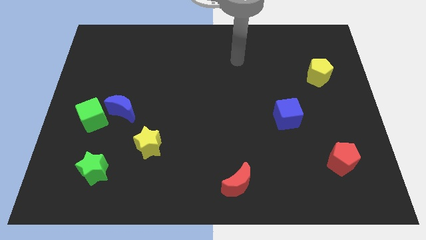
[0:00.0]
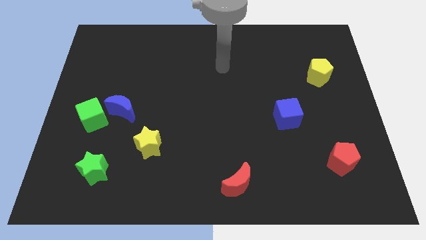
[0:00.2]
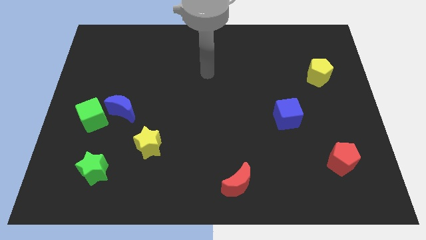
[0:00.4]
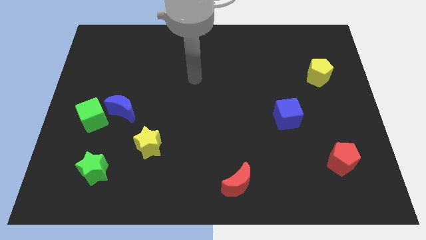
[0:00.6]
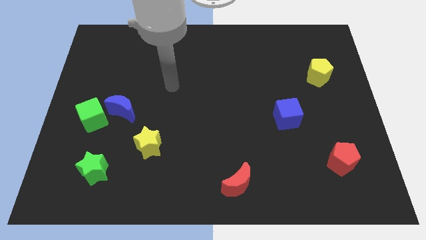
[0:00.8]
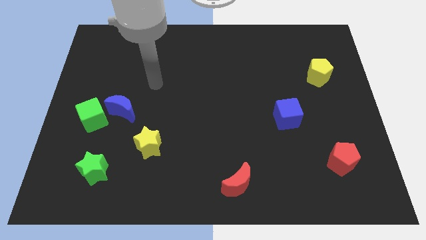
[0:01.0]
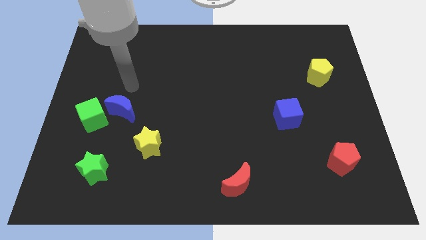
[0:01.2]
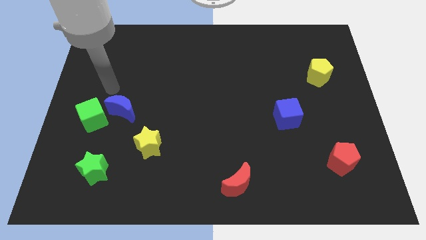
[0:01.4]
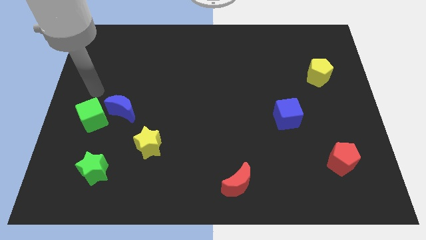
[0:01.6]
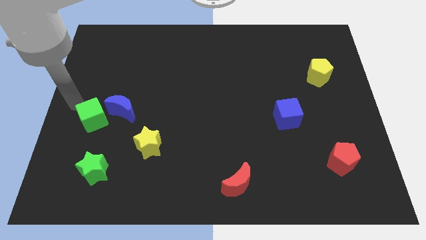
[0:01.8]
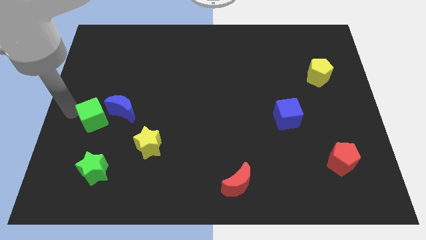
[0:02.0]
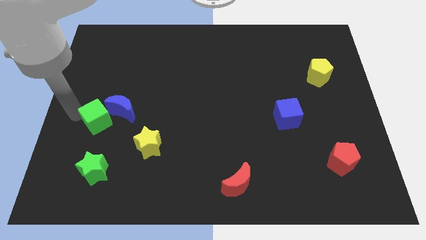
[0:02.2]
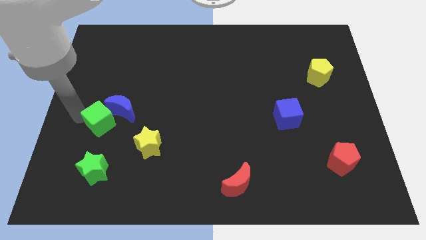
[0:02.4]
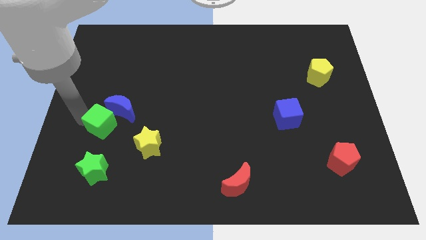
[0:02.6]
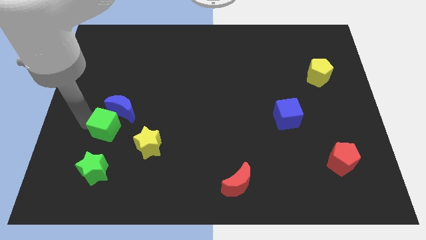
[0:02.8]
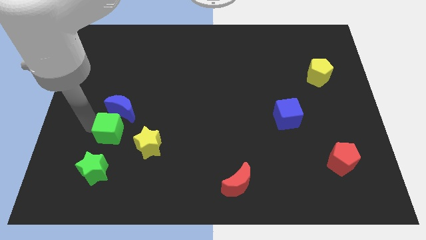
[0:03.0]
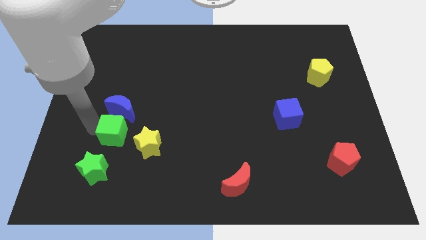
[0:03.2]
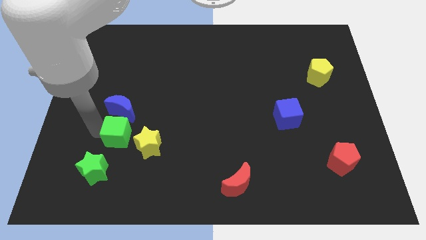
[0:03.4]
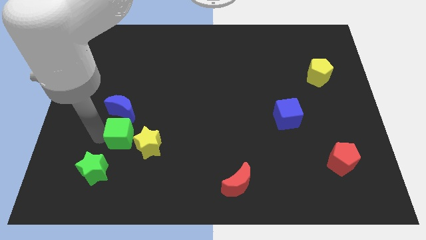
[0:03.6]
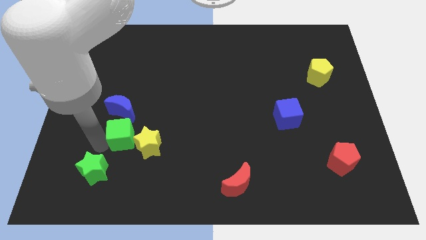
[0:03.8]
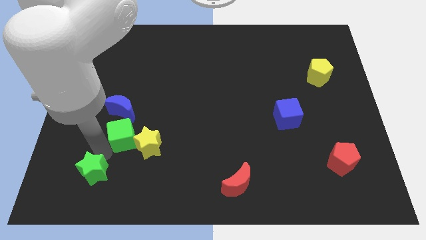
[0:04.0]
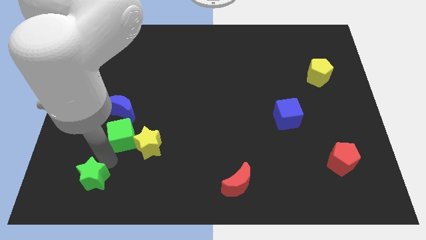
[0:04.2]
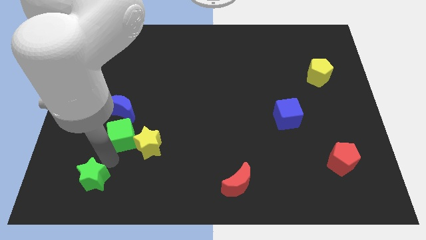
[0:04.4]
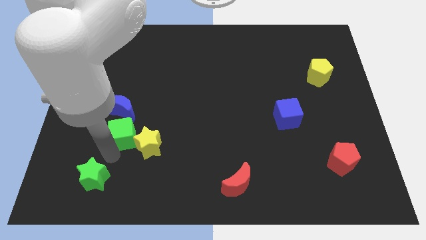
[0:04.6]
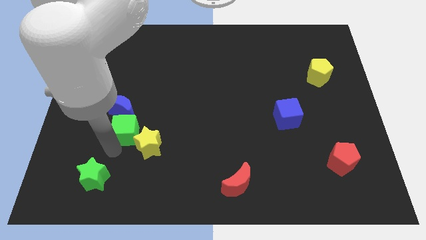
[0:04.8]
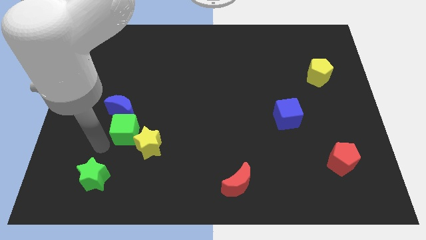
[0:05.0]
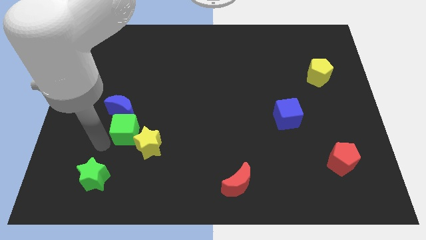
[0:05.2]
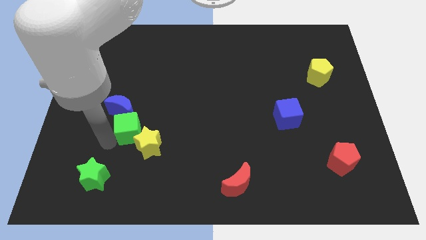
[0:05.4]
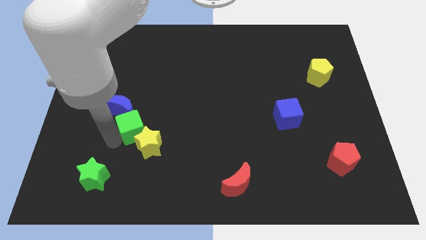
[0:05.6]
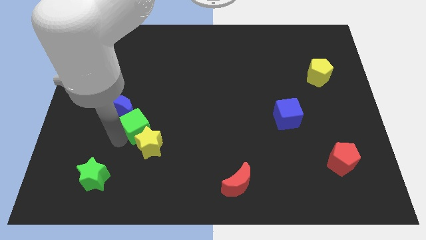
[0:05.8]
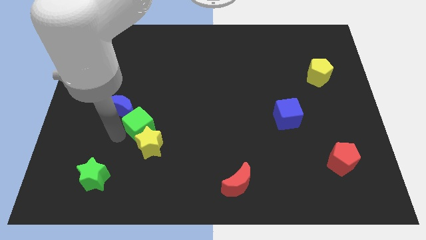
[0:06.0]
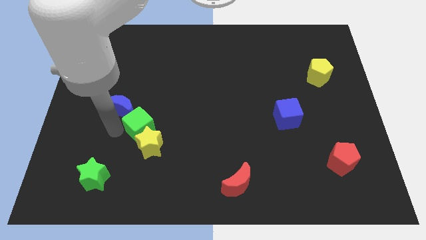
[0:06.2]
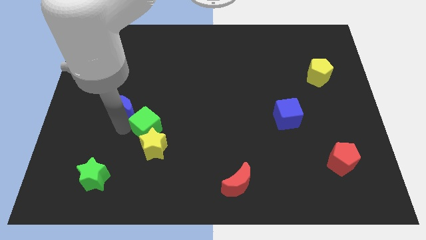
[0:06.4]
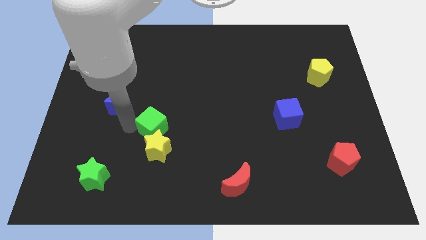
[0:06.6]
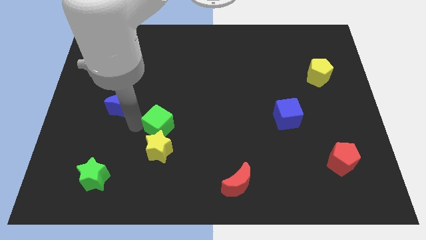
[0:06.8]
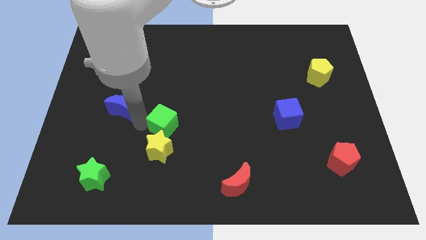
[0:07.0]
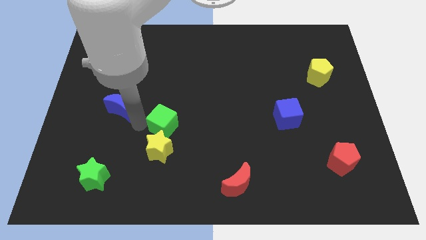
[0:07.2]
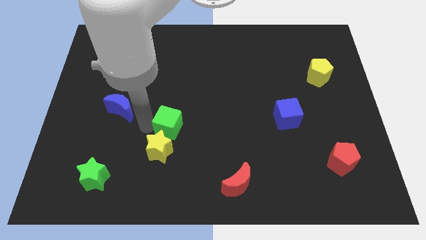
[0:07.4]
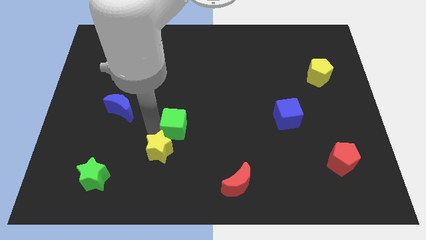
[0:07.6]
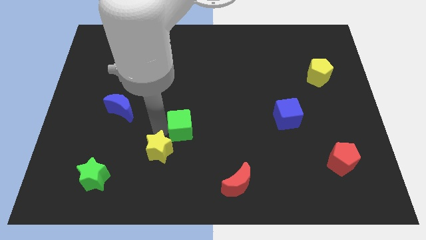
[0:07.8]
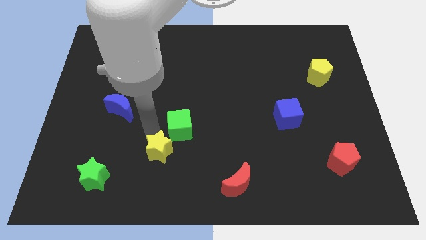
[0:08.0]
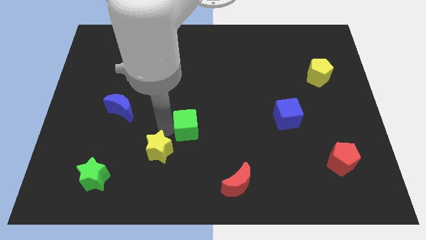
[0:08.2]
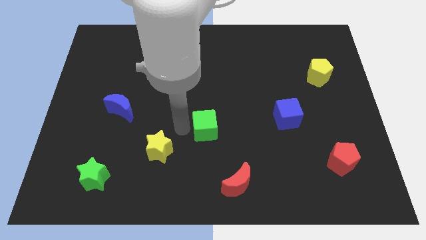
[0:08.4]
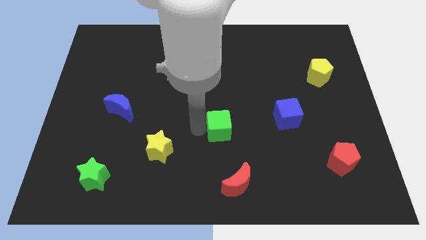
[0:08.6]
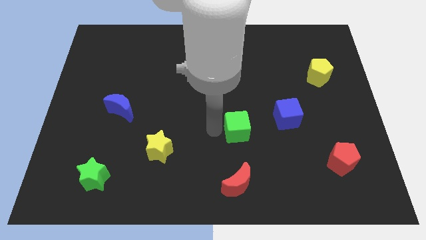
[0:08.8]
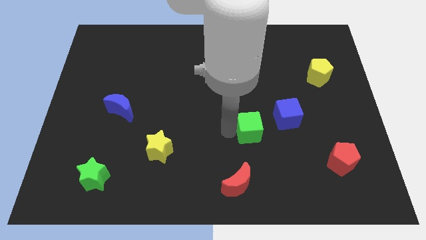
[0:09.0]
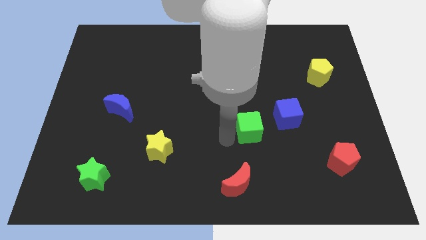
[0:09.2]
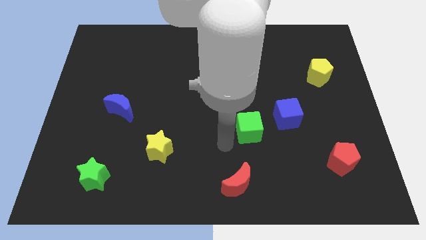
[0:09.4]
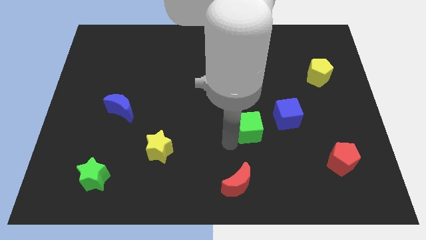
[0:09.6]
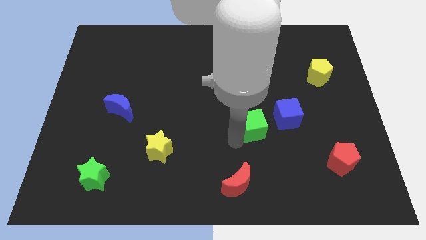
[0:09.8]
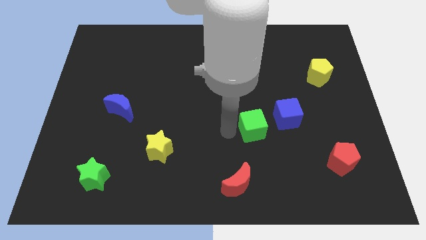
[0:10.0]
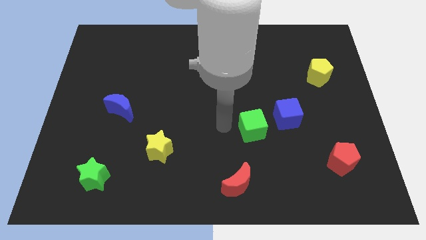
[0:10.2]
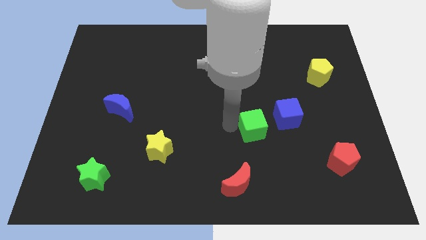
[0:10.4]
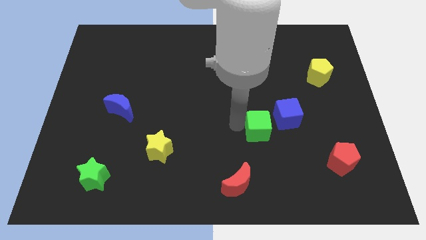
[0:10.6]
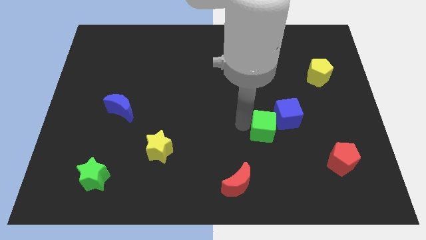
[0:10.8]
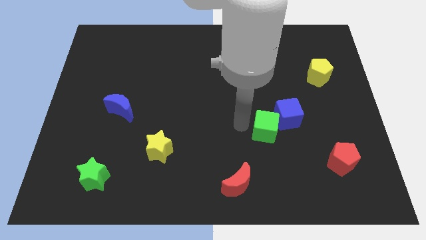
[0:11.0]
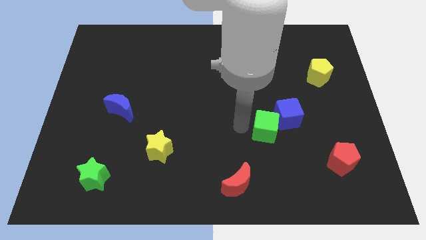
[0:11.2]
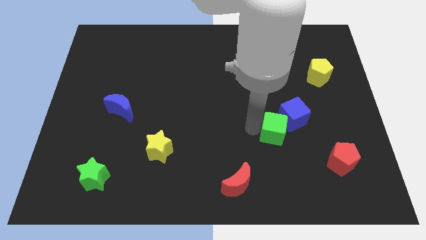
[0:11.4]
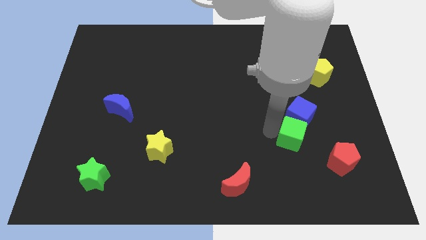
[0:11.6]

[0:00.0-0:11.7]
push the green cube to the top left side of the red pentagon

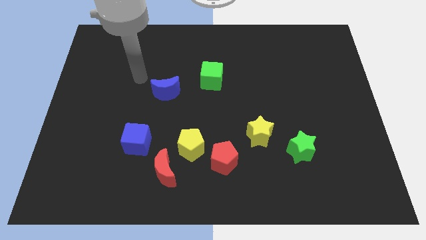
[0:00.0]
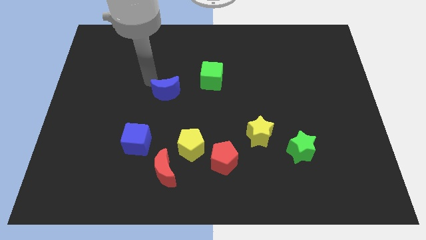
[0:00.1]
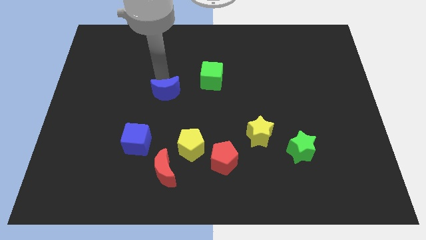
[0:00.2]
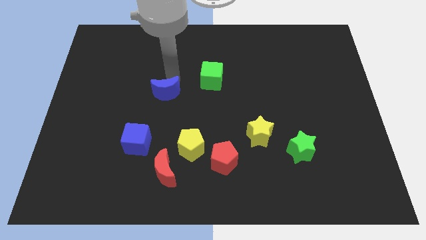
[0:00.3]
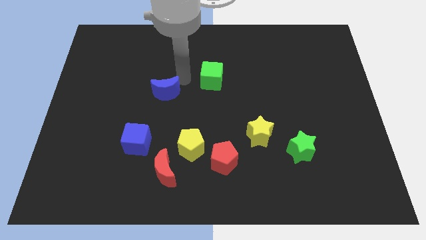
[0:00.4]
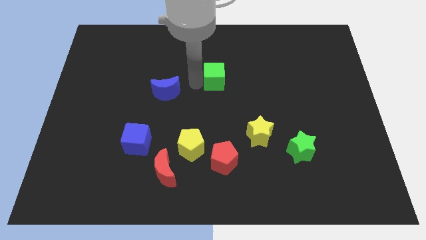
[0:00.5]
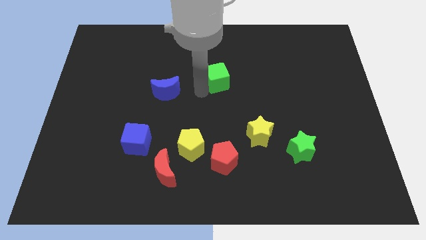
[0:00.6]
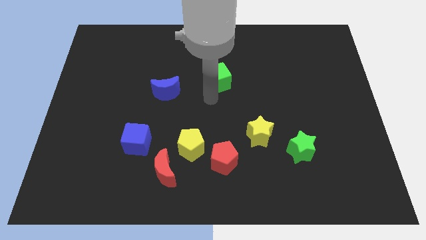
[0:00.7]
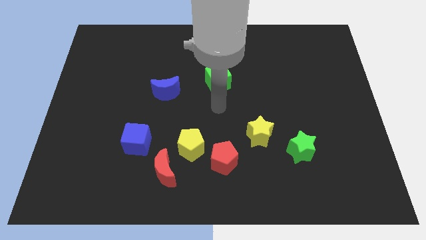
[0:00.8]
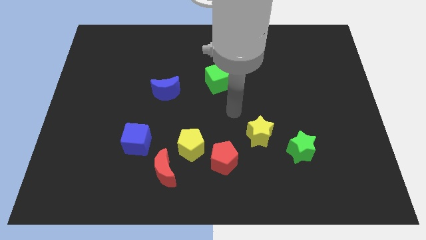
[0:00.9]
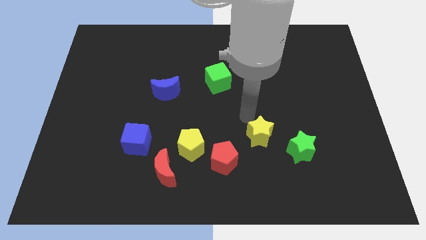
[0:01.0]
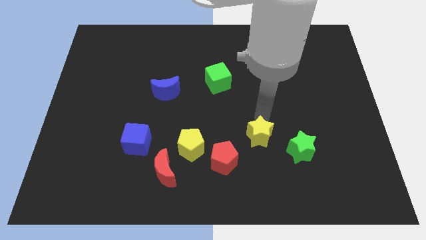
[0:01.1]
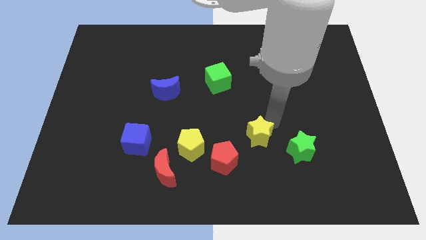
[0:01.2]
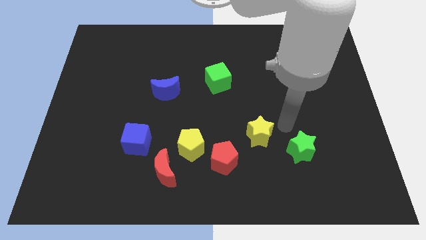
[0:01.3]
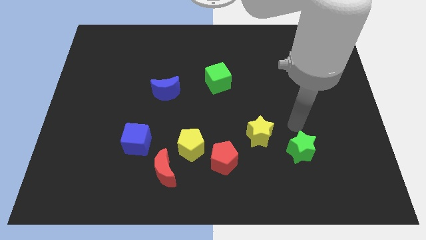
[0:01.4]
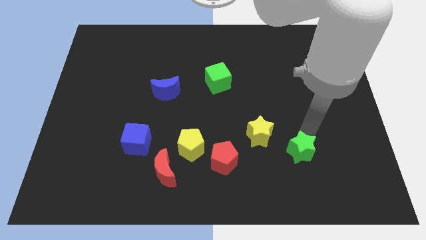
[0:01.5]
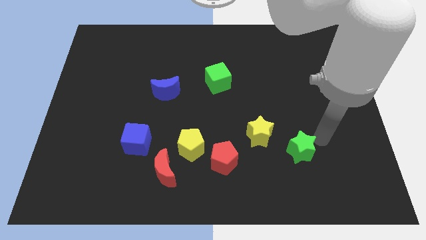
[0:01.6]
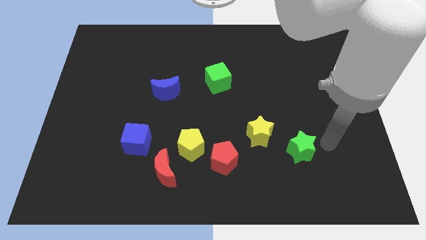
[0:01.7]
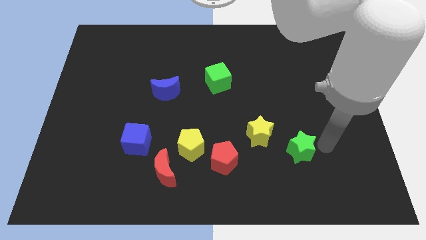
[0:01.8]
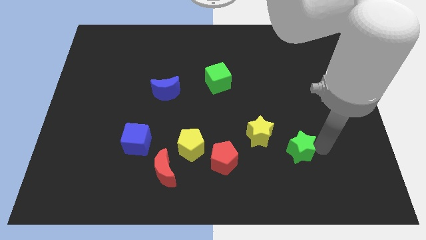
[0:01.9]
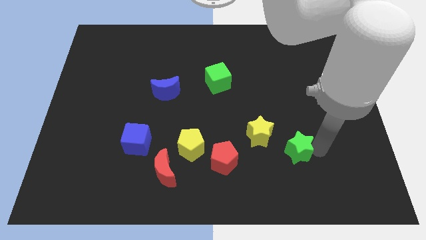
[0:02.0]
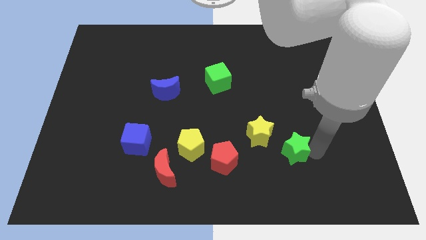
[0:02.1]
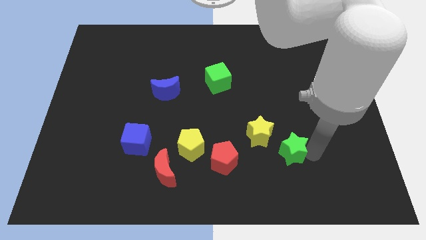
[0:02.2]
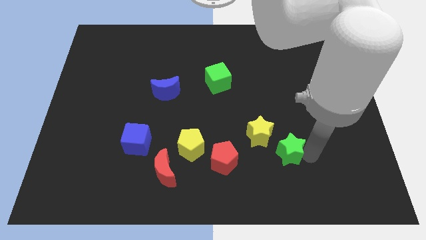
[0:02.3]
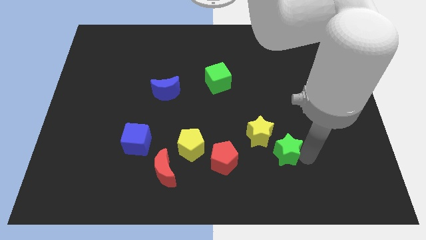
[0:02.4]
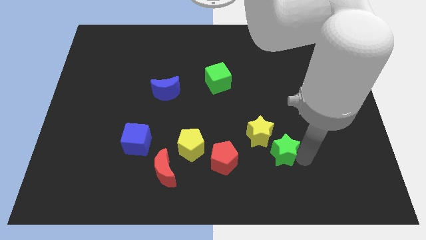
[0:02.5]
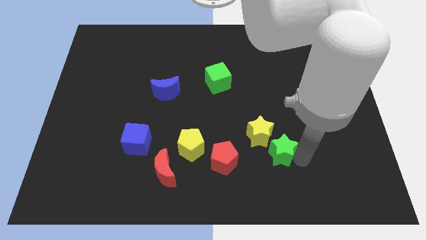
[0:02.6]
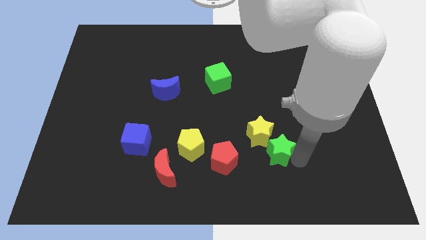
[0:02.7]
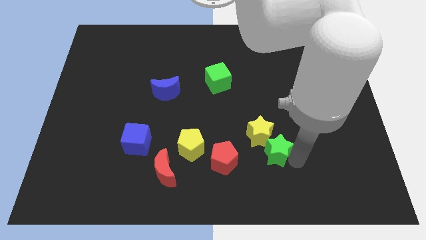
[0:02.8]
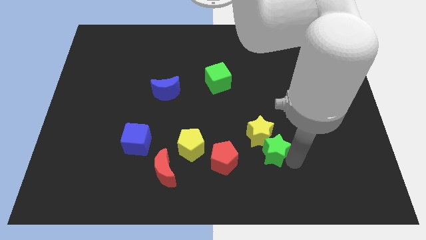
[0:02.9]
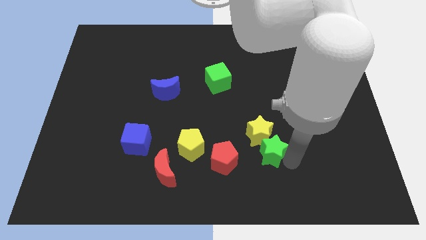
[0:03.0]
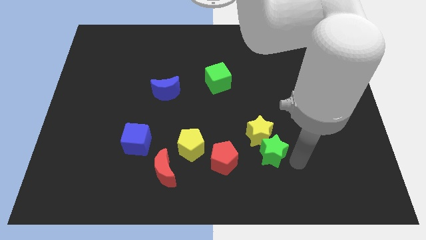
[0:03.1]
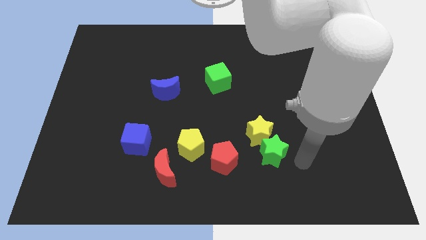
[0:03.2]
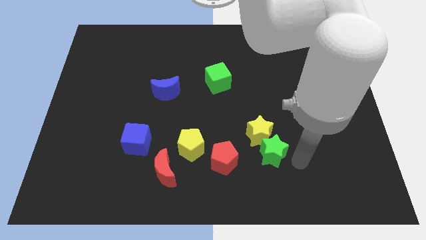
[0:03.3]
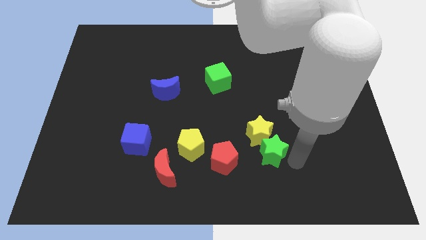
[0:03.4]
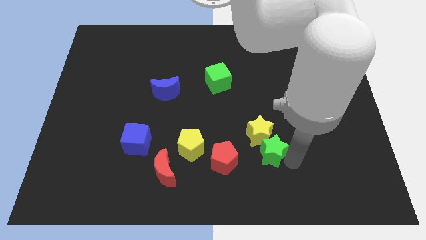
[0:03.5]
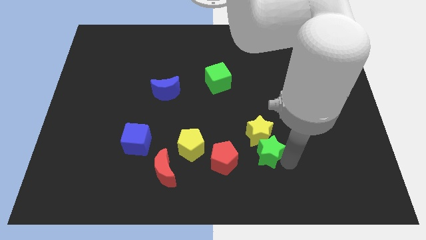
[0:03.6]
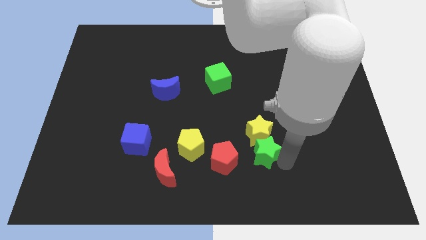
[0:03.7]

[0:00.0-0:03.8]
slide the green star right of the yellow pentagon
